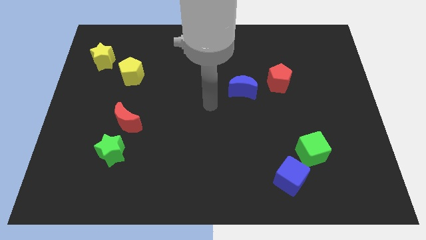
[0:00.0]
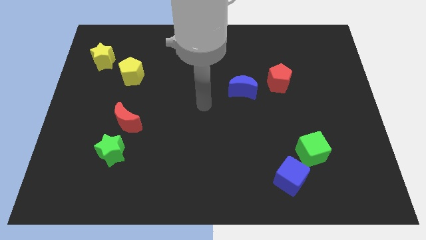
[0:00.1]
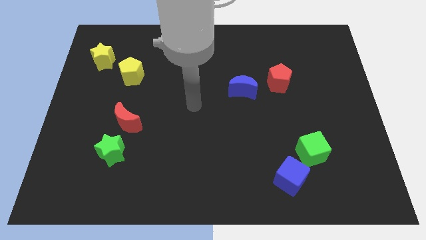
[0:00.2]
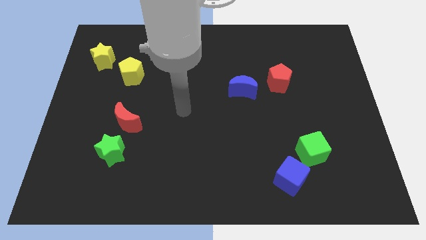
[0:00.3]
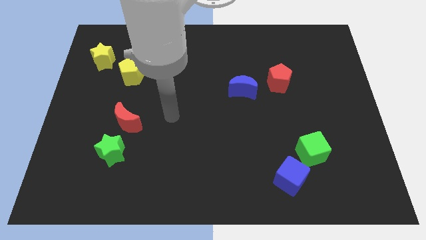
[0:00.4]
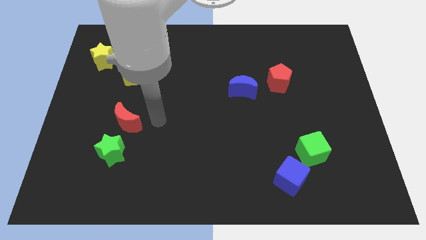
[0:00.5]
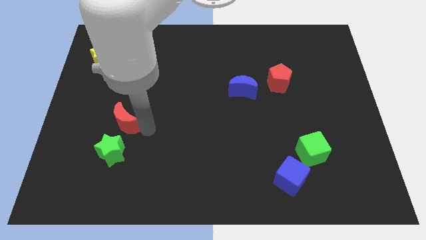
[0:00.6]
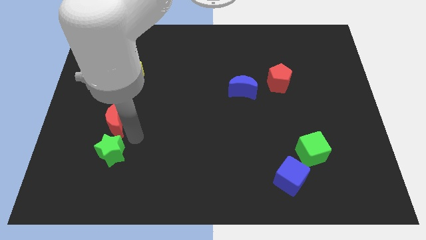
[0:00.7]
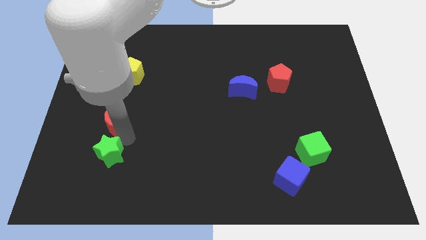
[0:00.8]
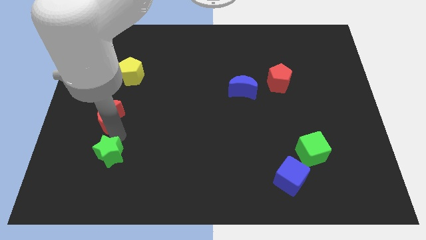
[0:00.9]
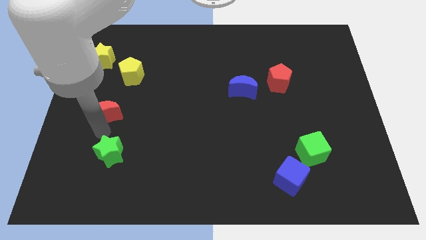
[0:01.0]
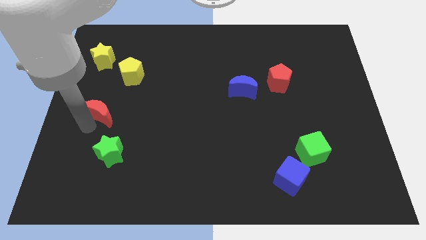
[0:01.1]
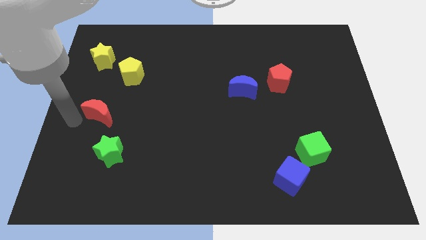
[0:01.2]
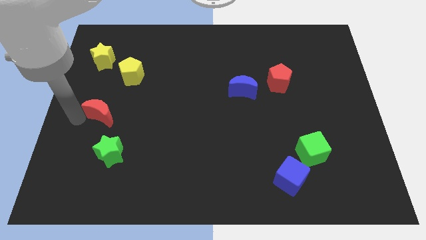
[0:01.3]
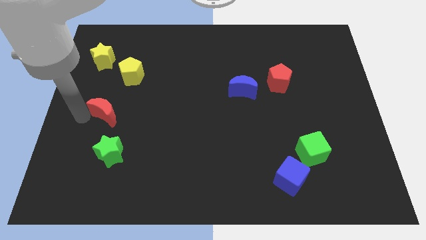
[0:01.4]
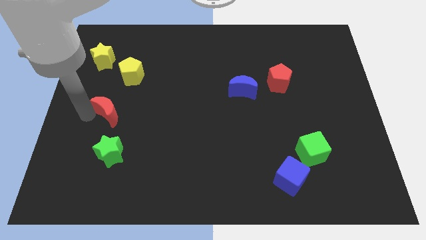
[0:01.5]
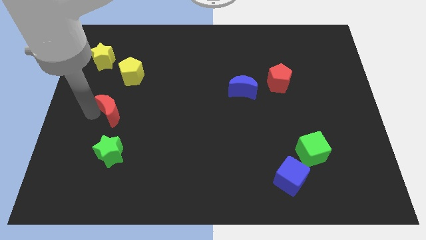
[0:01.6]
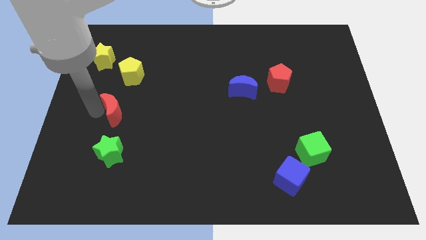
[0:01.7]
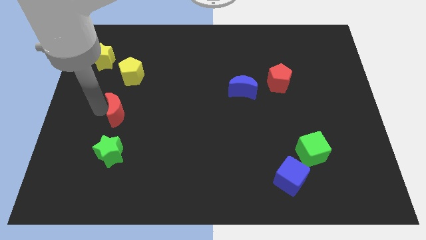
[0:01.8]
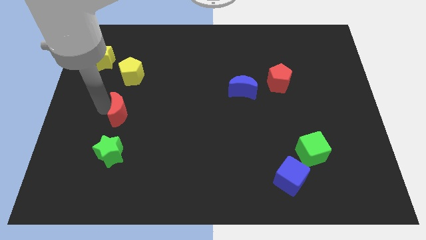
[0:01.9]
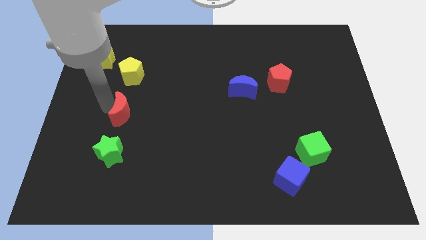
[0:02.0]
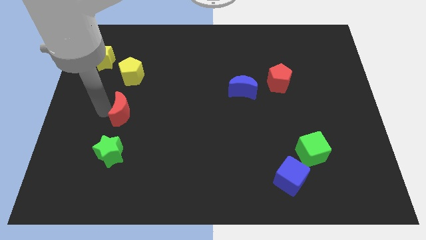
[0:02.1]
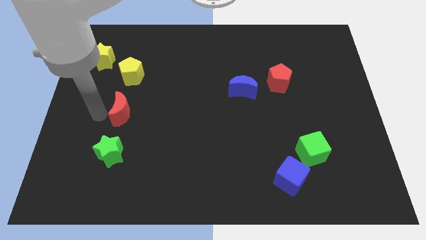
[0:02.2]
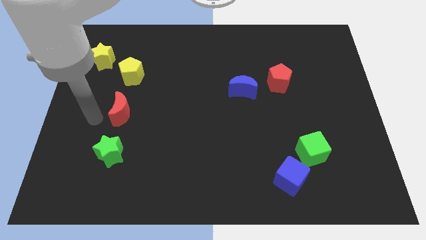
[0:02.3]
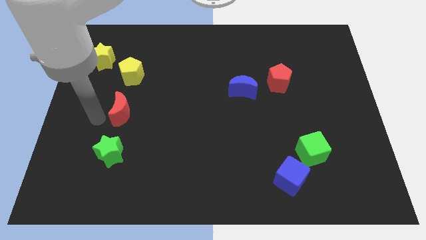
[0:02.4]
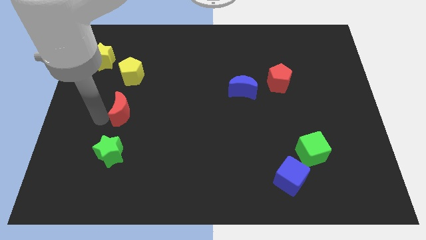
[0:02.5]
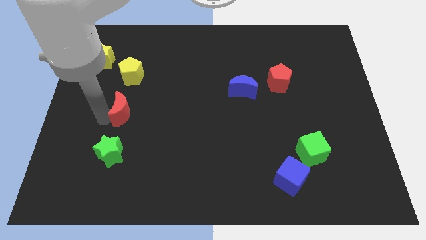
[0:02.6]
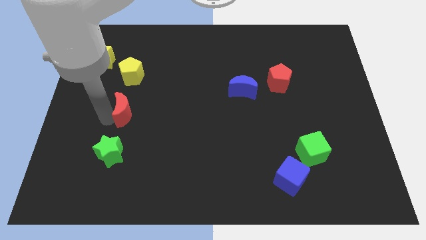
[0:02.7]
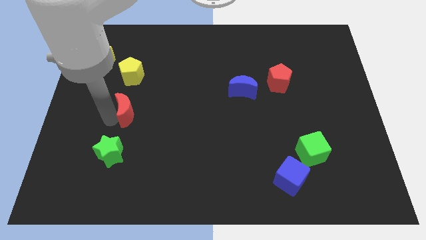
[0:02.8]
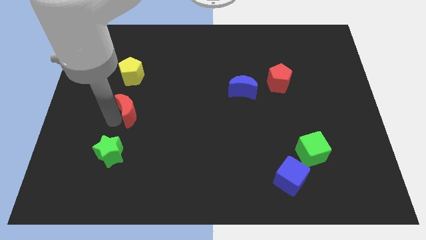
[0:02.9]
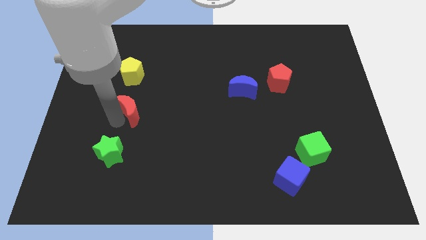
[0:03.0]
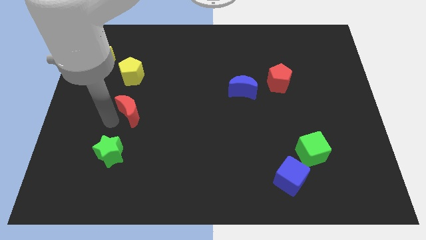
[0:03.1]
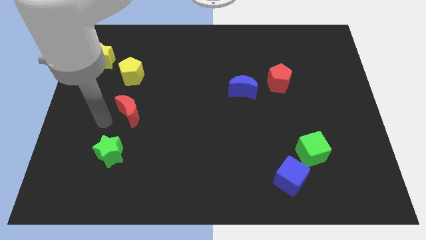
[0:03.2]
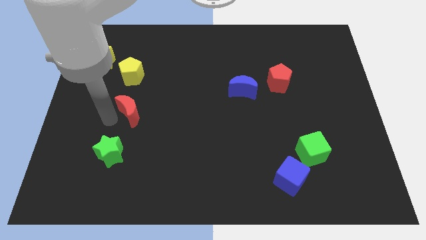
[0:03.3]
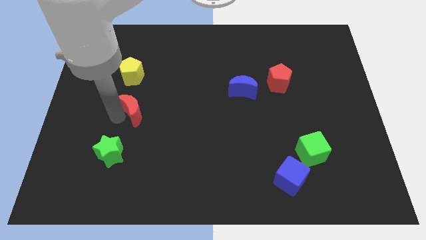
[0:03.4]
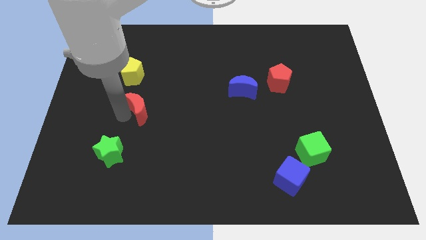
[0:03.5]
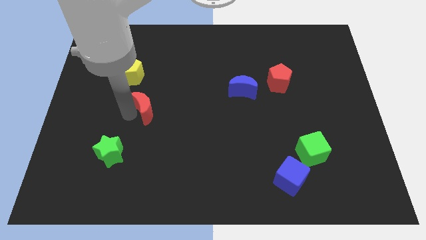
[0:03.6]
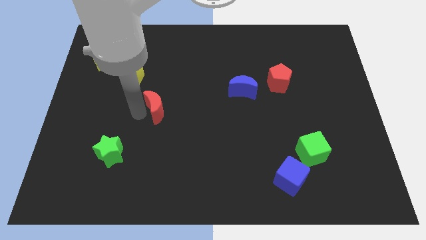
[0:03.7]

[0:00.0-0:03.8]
slide the red moon a little upwards and then to the right

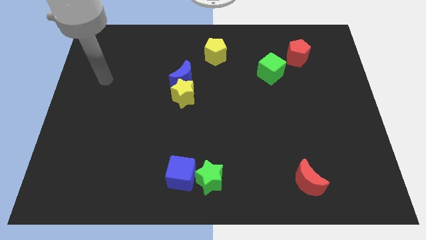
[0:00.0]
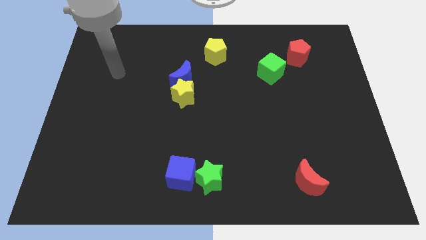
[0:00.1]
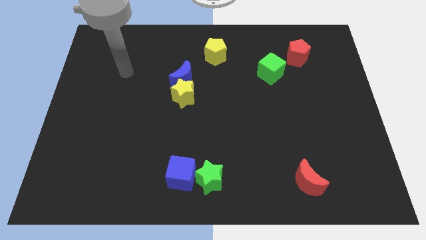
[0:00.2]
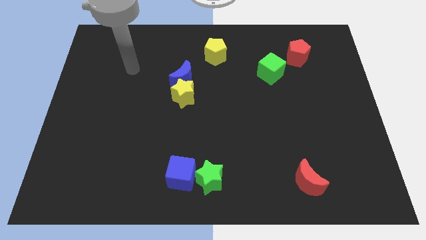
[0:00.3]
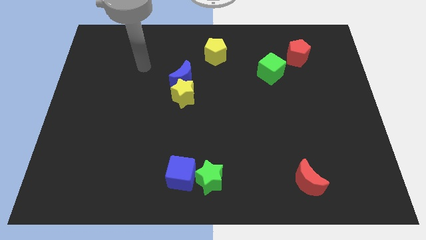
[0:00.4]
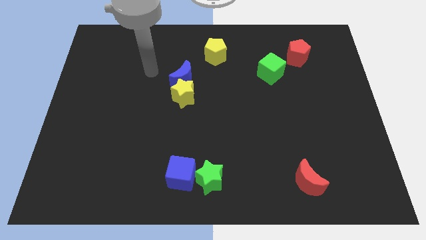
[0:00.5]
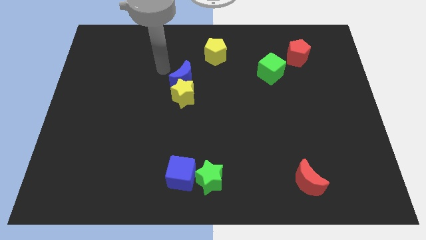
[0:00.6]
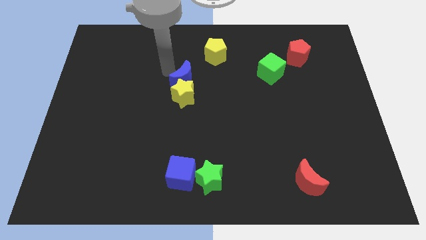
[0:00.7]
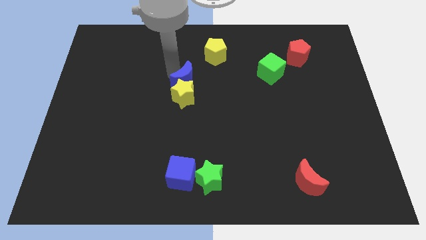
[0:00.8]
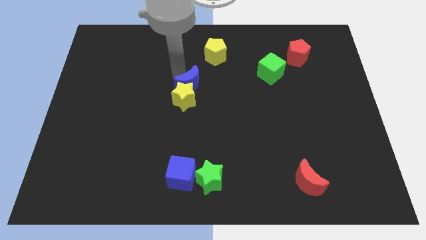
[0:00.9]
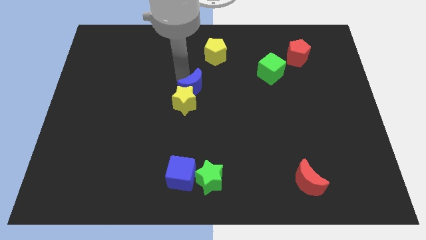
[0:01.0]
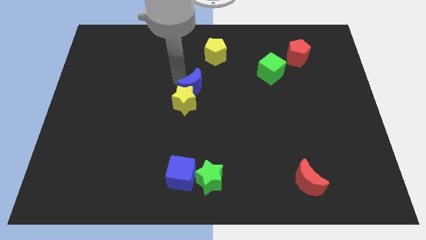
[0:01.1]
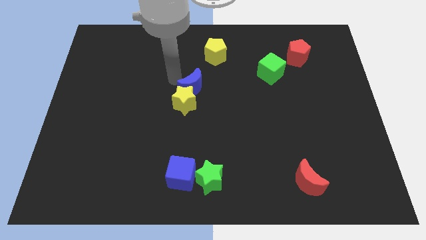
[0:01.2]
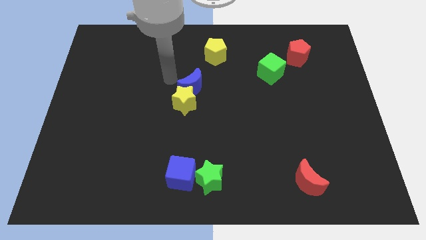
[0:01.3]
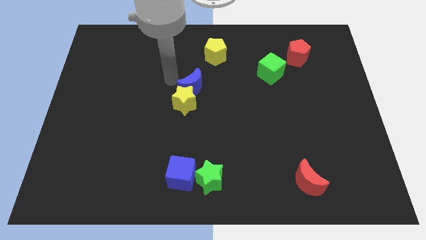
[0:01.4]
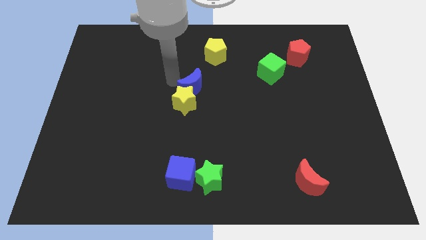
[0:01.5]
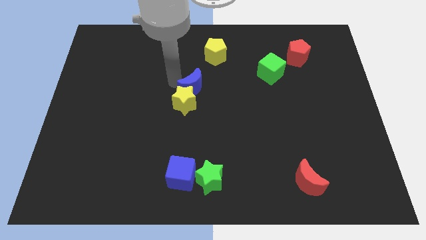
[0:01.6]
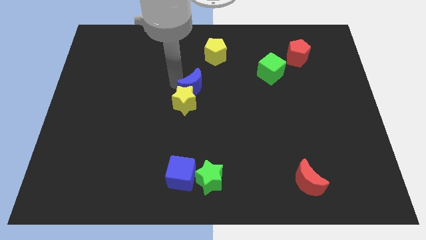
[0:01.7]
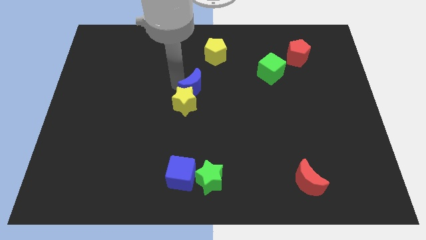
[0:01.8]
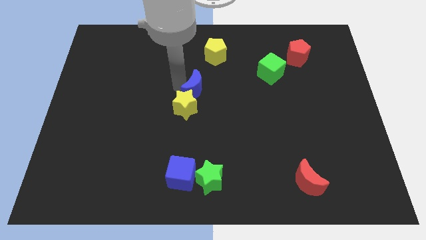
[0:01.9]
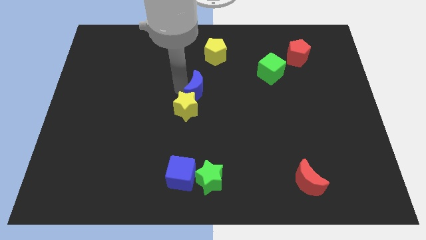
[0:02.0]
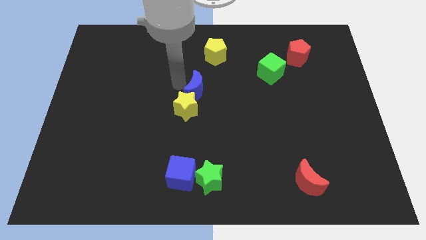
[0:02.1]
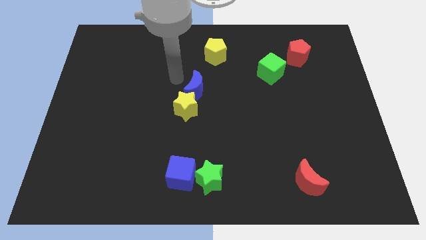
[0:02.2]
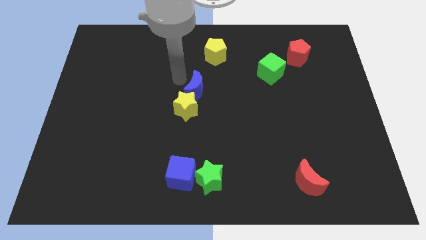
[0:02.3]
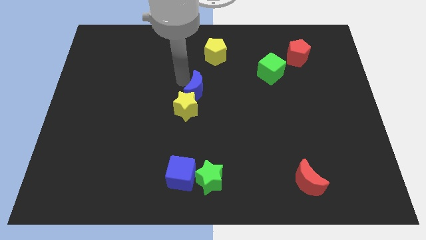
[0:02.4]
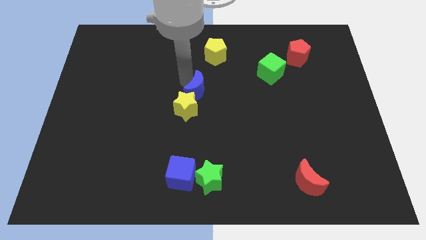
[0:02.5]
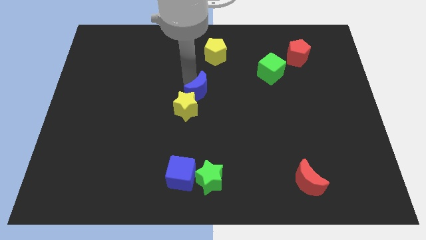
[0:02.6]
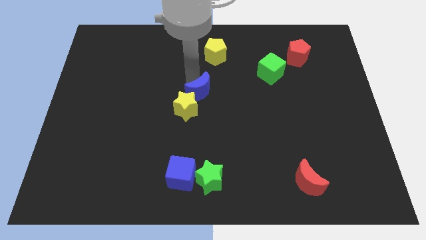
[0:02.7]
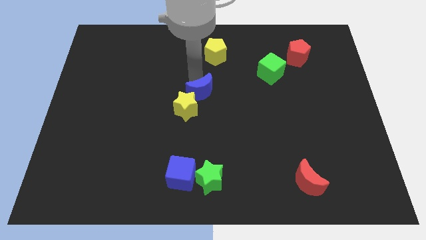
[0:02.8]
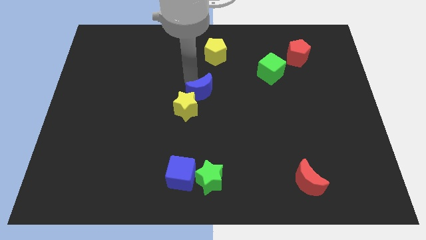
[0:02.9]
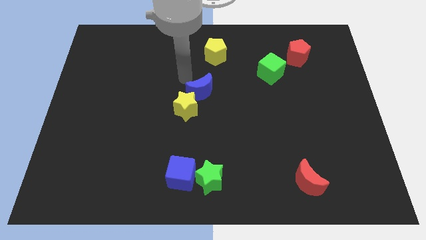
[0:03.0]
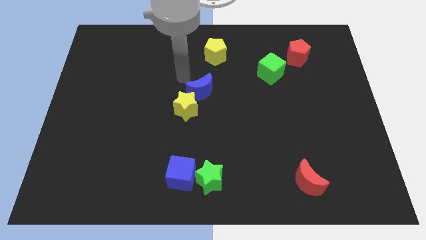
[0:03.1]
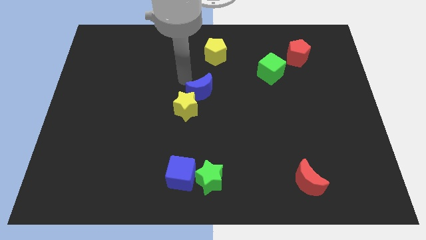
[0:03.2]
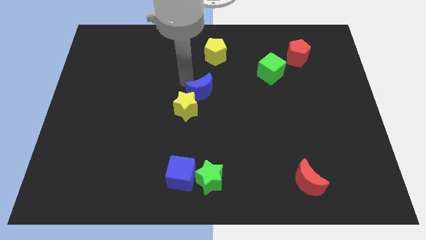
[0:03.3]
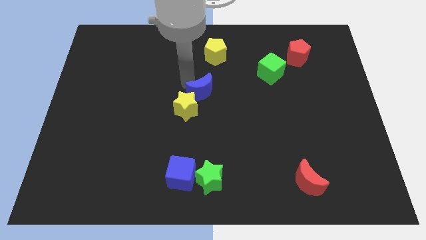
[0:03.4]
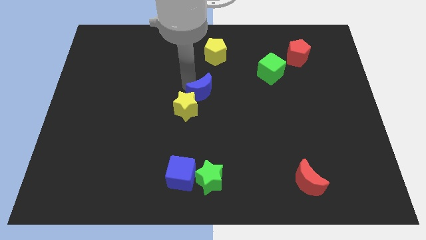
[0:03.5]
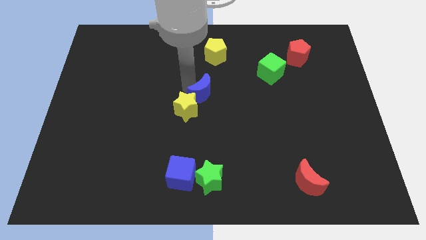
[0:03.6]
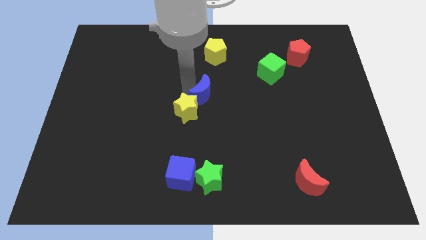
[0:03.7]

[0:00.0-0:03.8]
slightly slide the blue moon downwards and to the right diagonally

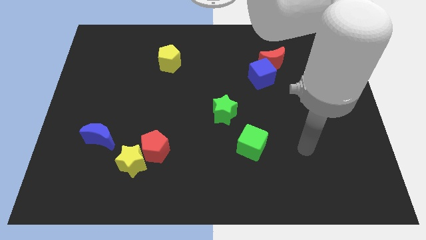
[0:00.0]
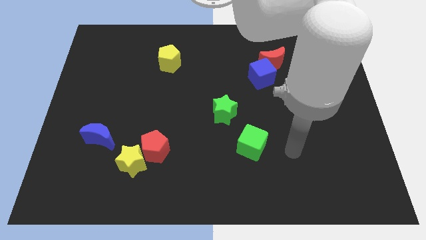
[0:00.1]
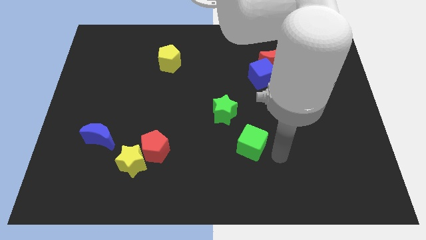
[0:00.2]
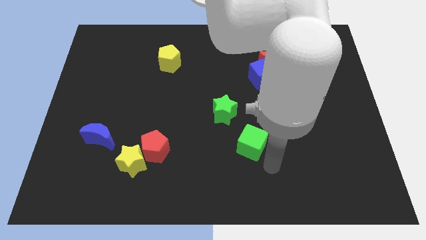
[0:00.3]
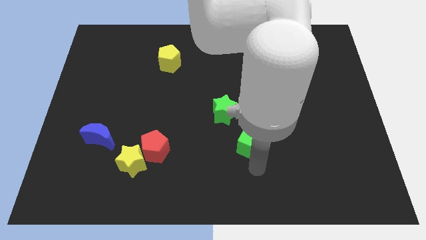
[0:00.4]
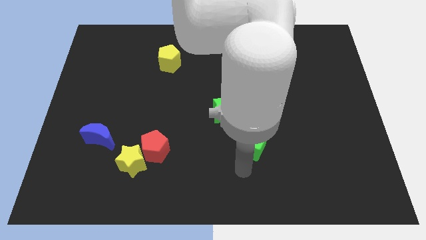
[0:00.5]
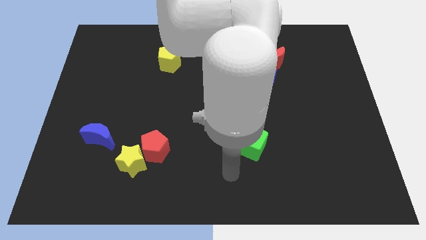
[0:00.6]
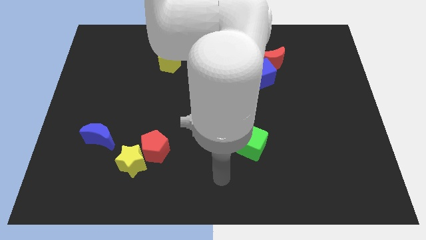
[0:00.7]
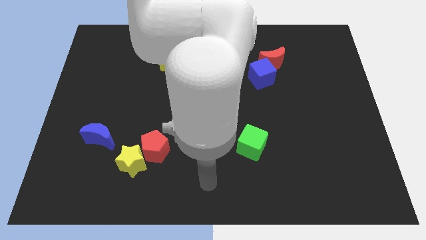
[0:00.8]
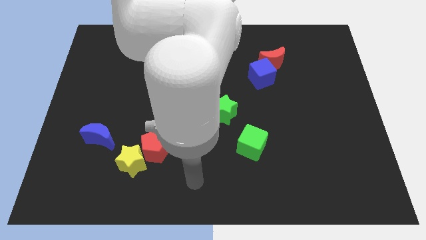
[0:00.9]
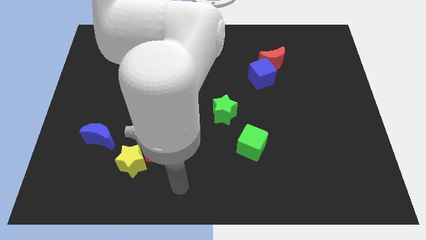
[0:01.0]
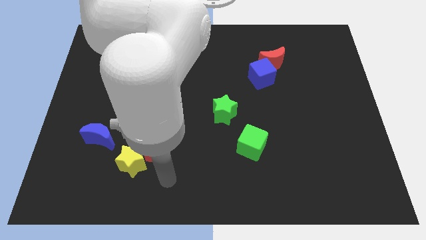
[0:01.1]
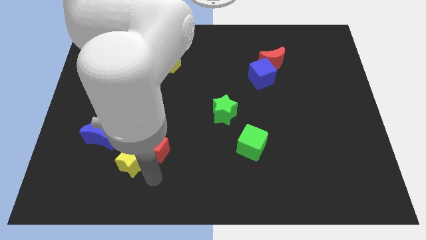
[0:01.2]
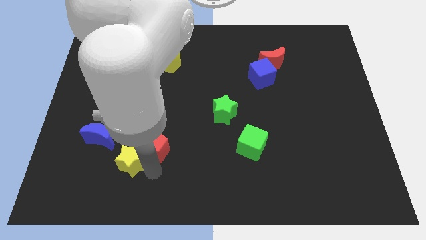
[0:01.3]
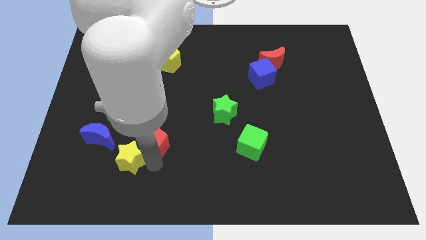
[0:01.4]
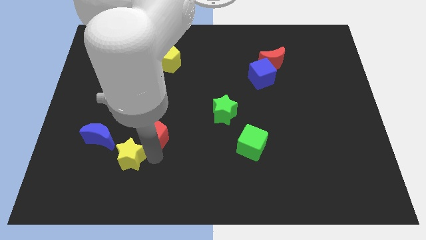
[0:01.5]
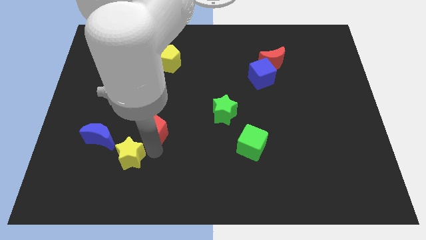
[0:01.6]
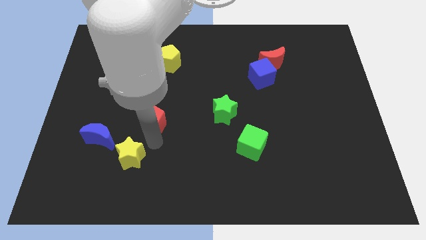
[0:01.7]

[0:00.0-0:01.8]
slightly move the red pentagon upwards
